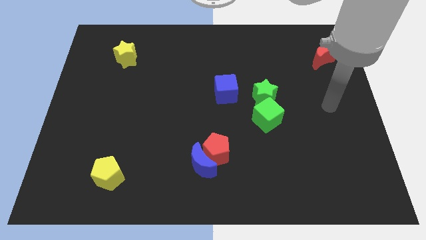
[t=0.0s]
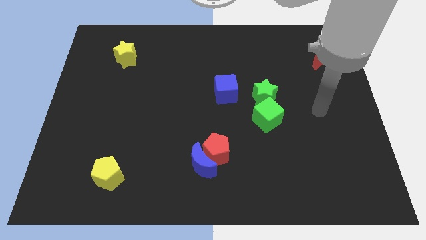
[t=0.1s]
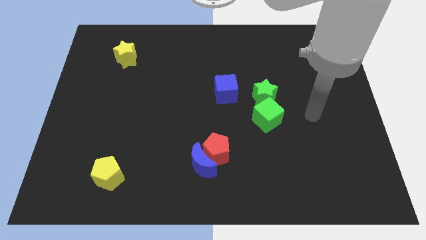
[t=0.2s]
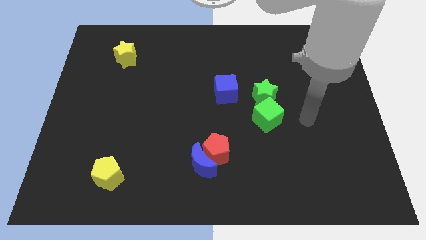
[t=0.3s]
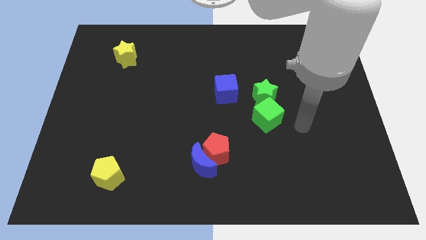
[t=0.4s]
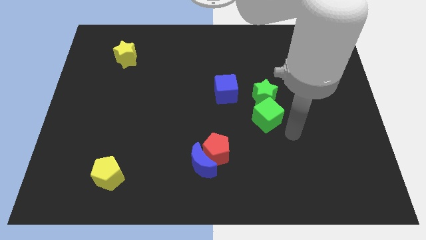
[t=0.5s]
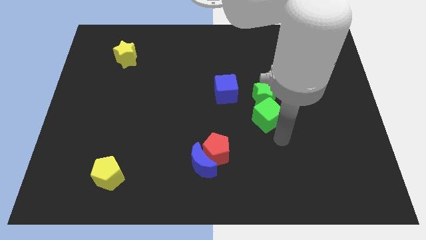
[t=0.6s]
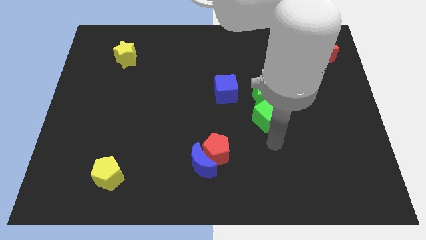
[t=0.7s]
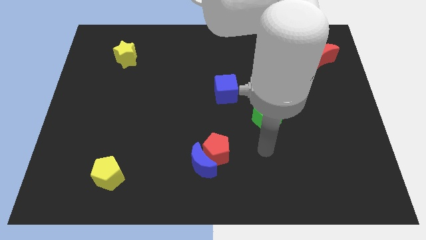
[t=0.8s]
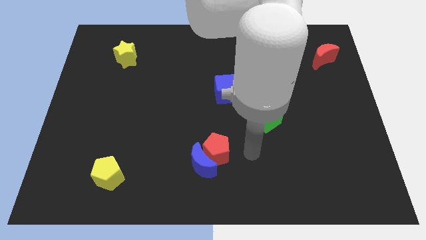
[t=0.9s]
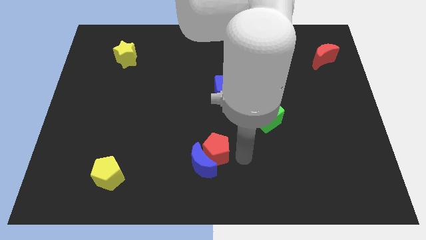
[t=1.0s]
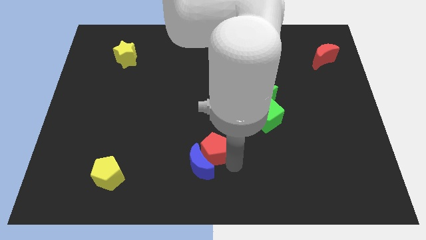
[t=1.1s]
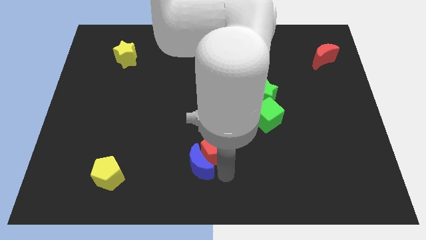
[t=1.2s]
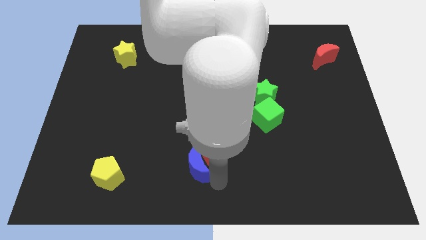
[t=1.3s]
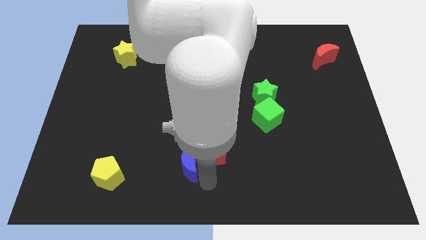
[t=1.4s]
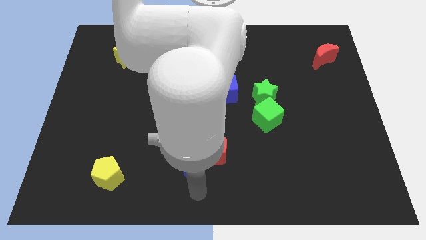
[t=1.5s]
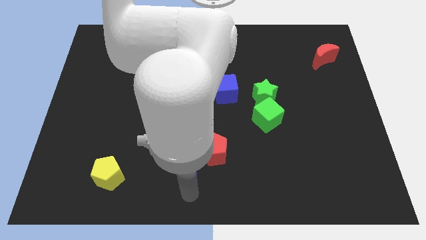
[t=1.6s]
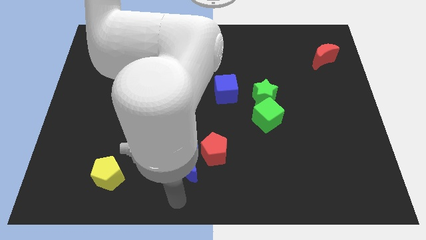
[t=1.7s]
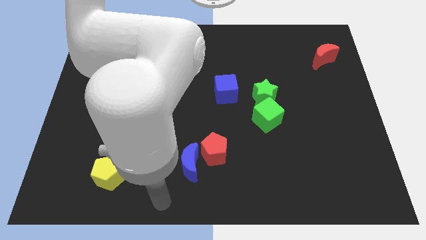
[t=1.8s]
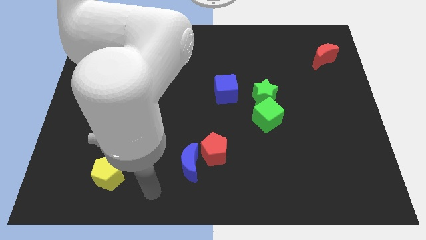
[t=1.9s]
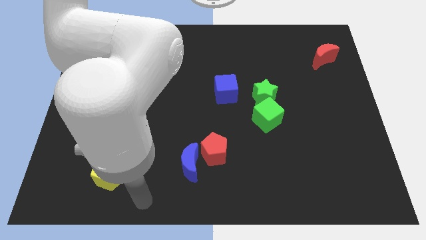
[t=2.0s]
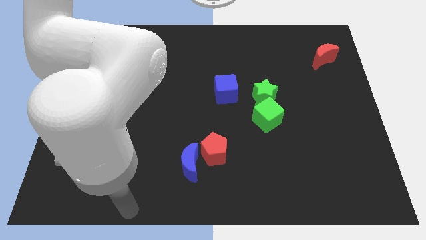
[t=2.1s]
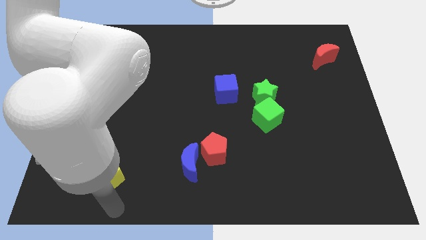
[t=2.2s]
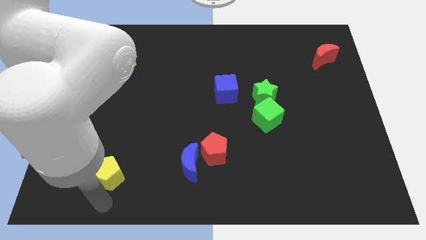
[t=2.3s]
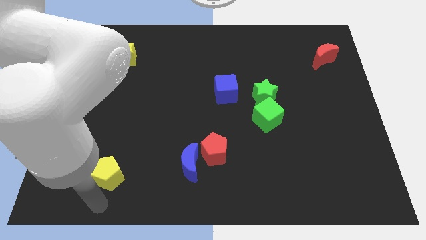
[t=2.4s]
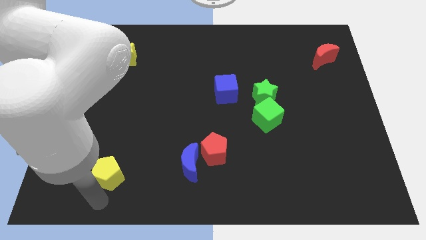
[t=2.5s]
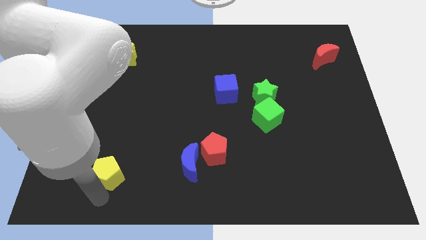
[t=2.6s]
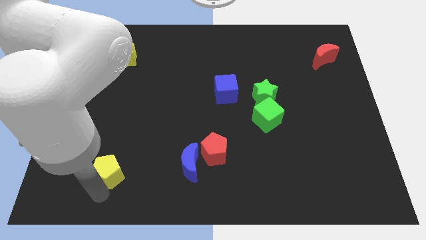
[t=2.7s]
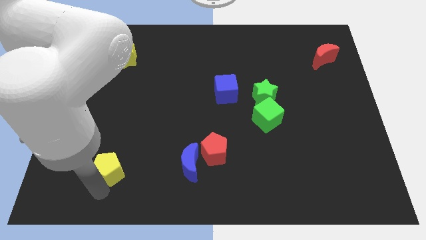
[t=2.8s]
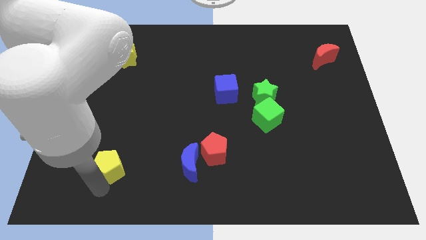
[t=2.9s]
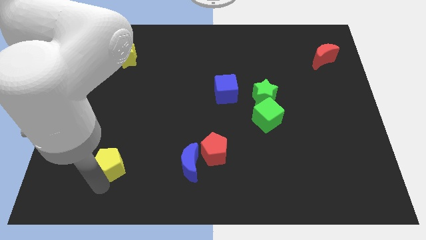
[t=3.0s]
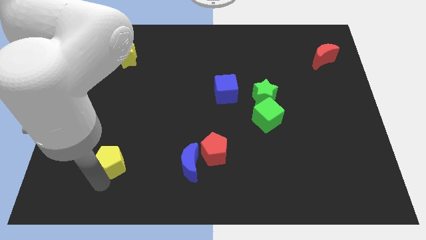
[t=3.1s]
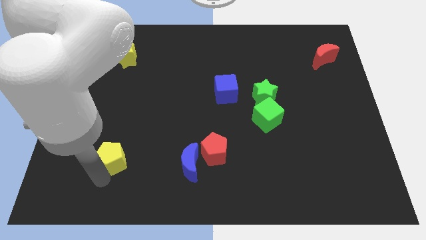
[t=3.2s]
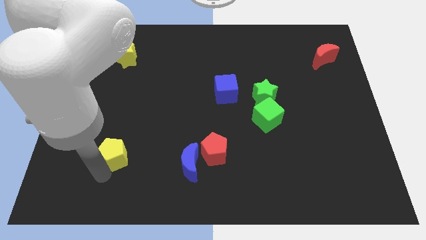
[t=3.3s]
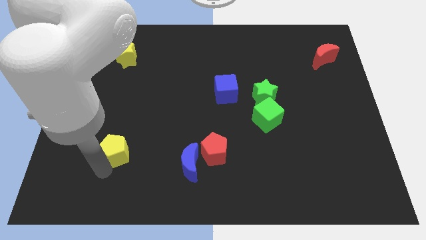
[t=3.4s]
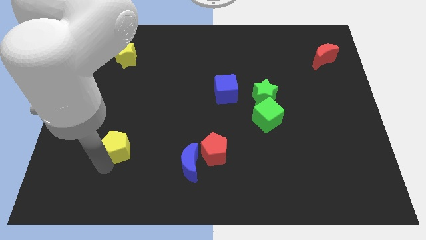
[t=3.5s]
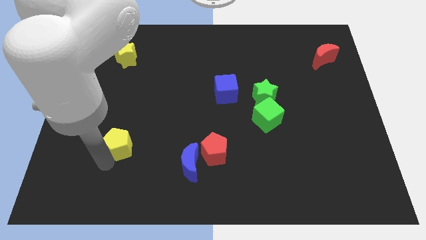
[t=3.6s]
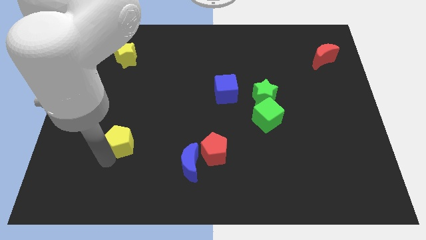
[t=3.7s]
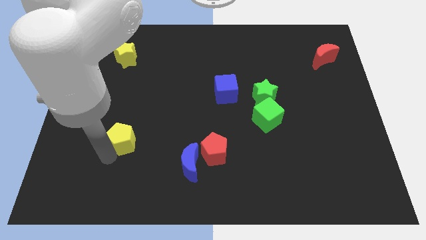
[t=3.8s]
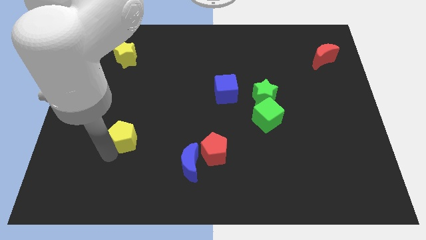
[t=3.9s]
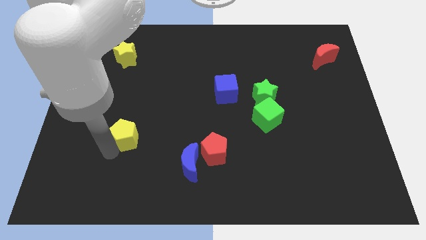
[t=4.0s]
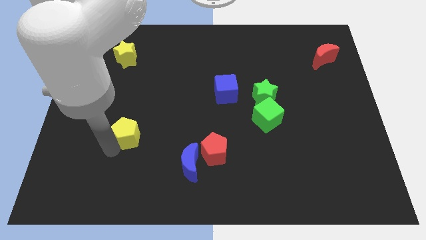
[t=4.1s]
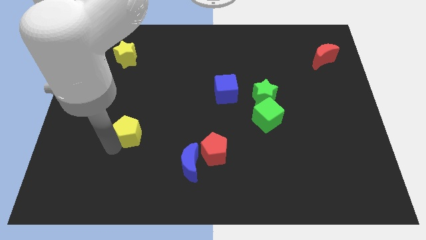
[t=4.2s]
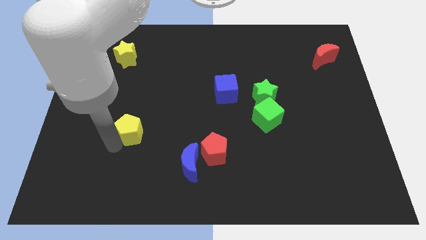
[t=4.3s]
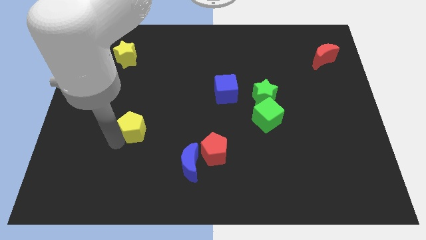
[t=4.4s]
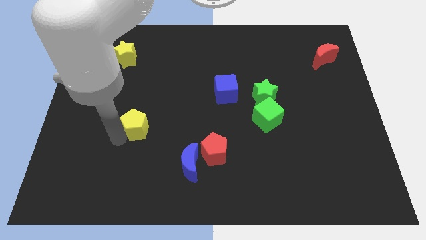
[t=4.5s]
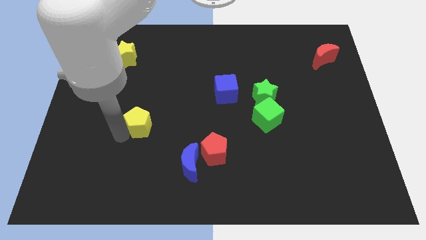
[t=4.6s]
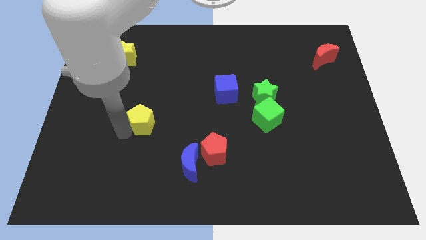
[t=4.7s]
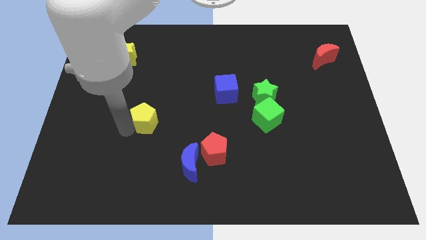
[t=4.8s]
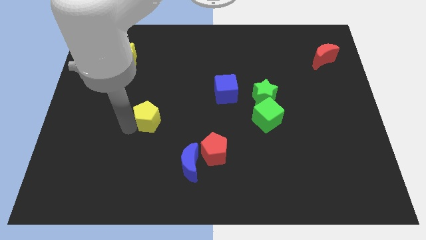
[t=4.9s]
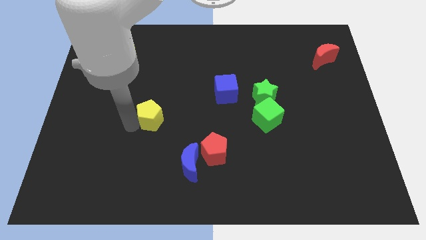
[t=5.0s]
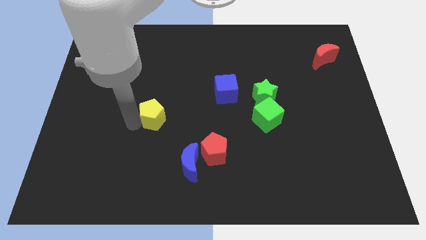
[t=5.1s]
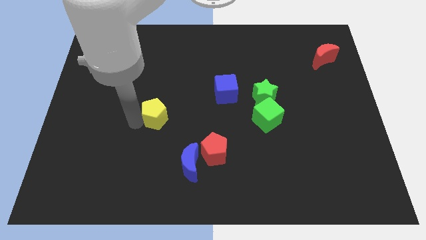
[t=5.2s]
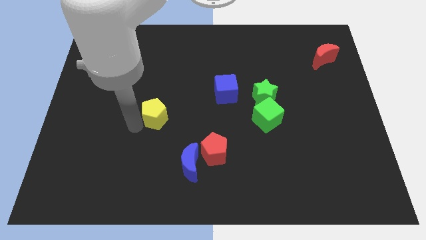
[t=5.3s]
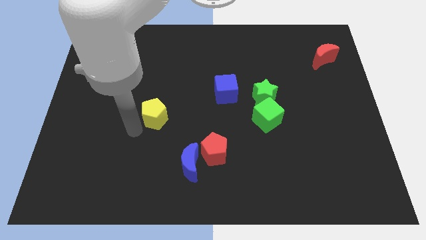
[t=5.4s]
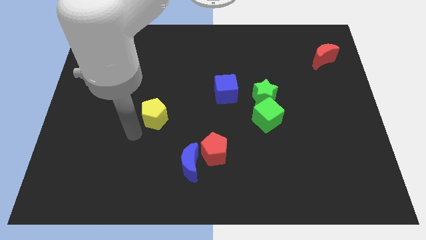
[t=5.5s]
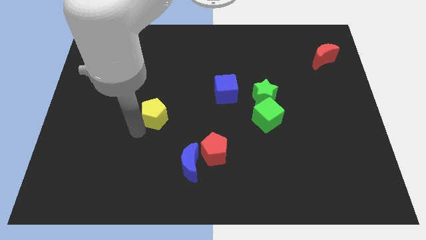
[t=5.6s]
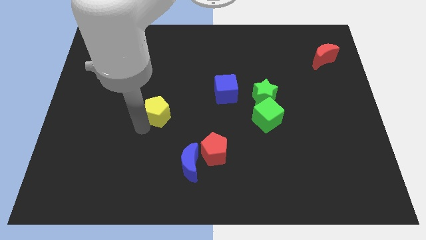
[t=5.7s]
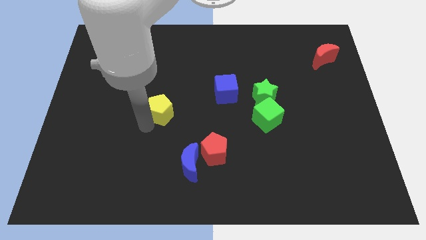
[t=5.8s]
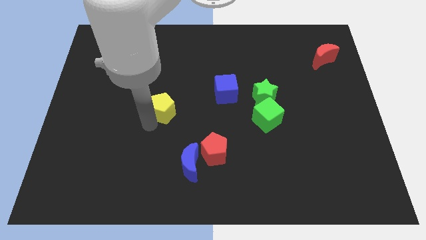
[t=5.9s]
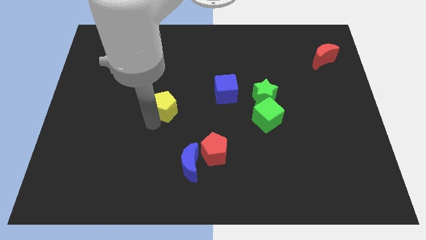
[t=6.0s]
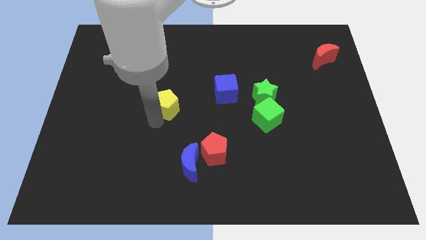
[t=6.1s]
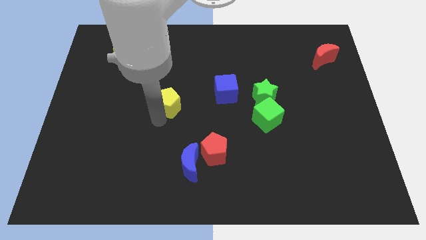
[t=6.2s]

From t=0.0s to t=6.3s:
put the yellow pentagon left of the blue cube

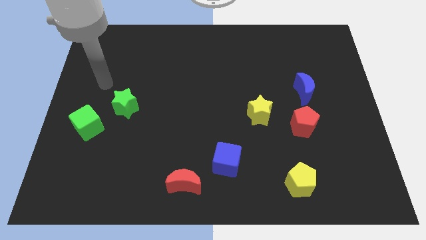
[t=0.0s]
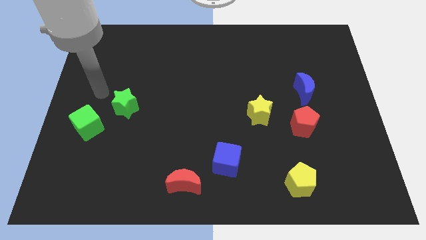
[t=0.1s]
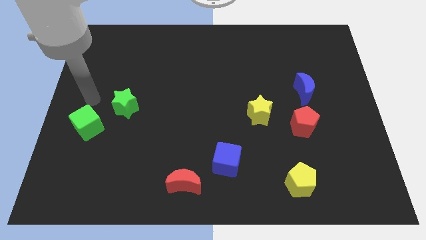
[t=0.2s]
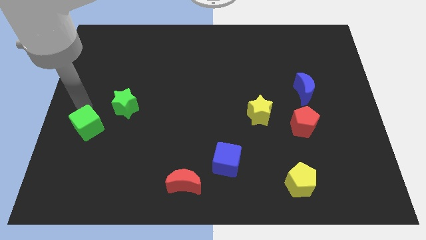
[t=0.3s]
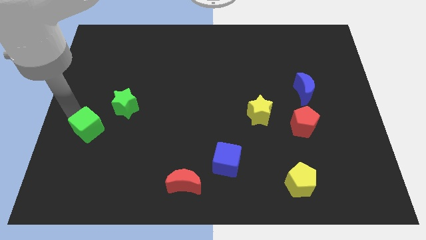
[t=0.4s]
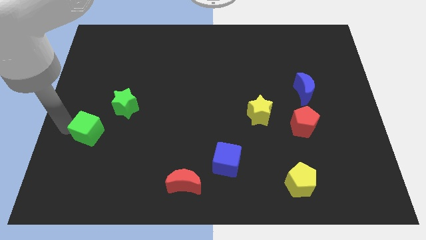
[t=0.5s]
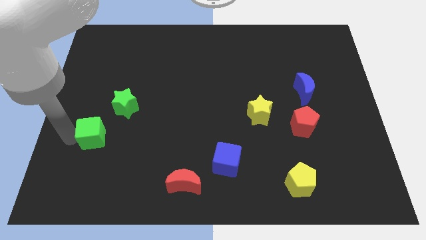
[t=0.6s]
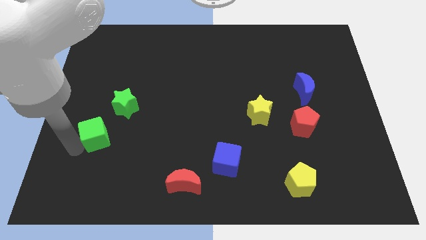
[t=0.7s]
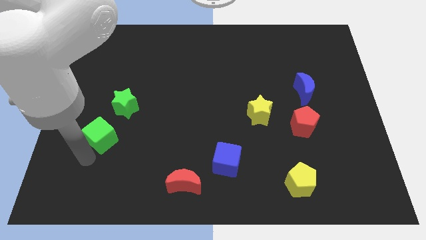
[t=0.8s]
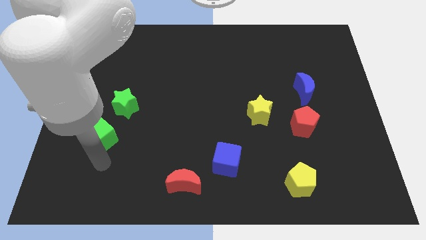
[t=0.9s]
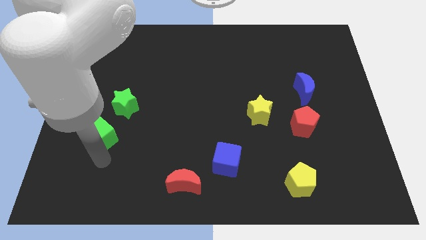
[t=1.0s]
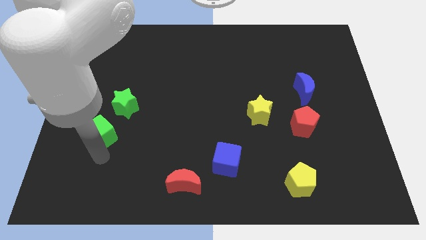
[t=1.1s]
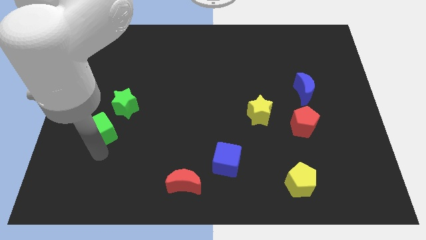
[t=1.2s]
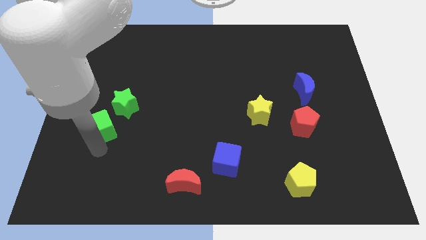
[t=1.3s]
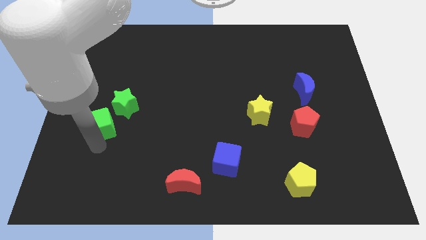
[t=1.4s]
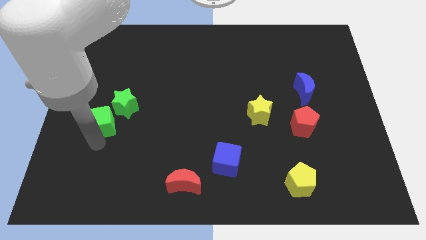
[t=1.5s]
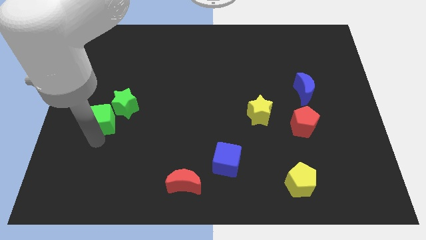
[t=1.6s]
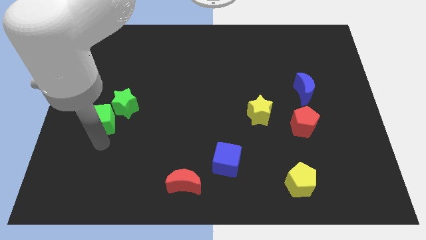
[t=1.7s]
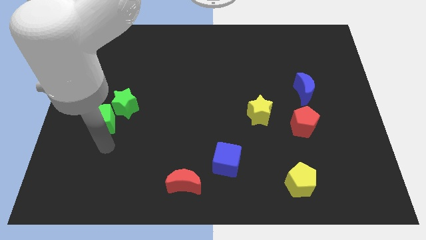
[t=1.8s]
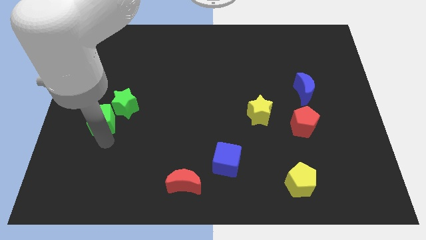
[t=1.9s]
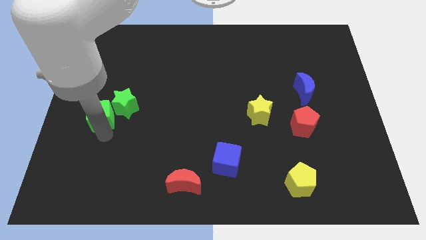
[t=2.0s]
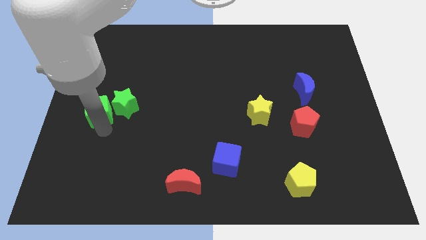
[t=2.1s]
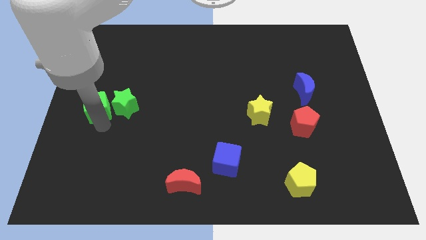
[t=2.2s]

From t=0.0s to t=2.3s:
slide the green cube to the top left of the green star
